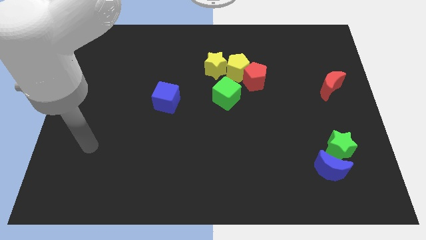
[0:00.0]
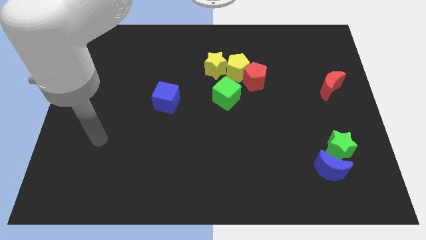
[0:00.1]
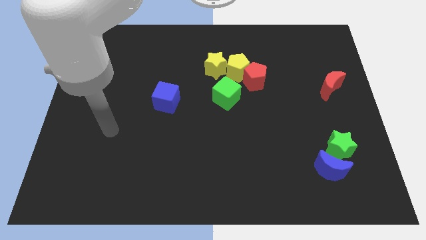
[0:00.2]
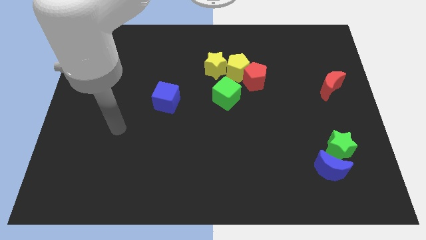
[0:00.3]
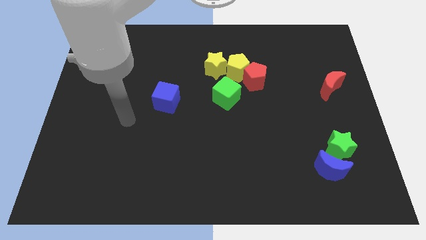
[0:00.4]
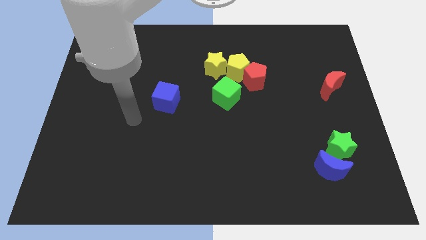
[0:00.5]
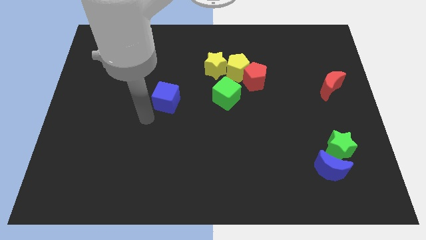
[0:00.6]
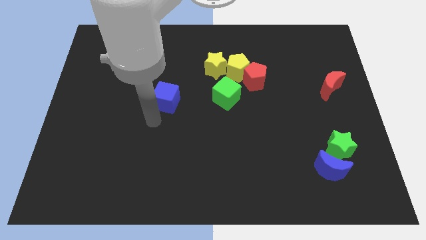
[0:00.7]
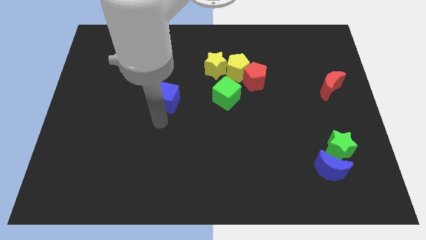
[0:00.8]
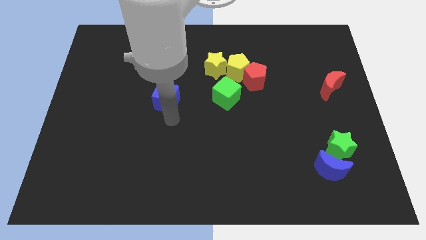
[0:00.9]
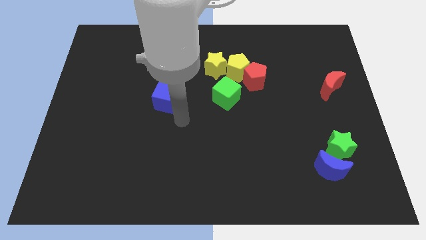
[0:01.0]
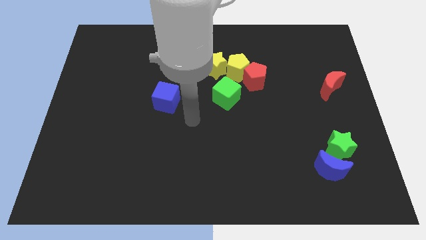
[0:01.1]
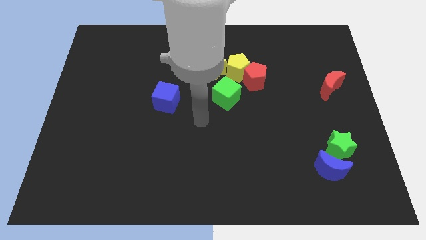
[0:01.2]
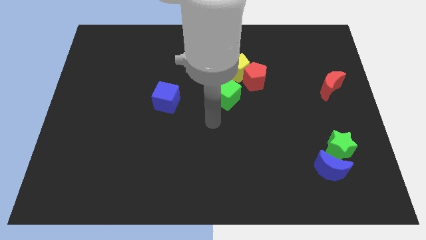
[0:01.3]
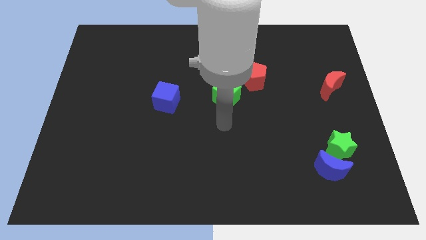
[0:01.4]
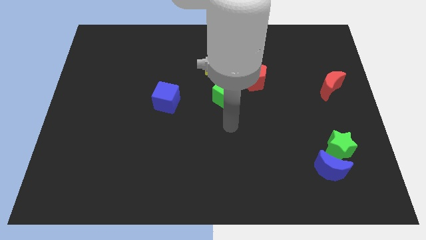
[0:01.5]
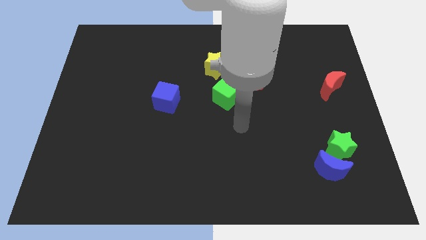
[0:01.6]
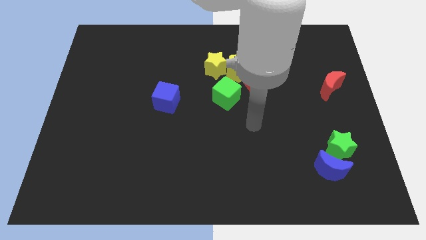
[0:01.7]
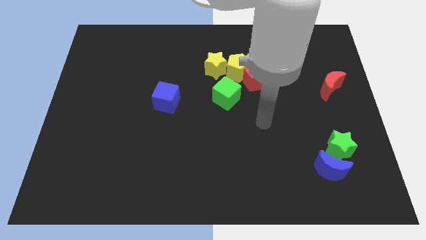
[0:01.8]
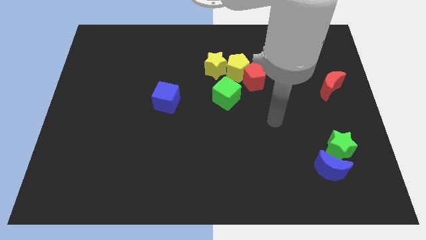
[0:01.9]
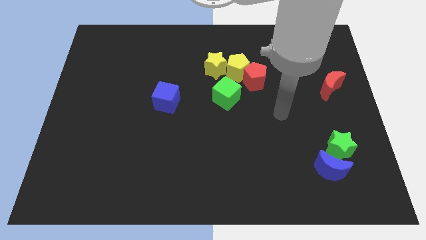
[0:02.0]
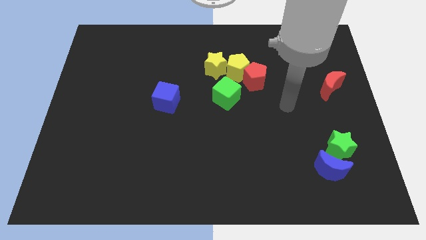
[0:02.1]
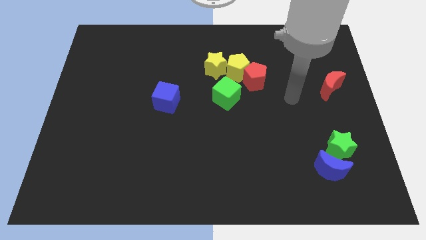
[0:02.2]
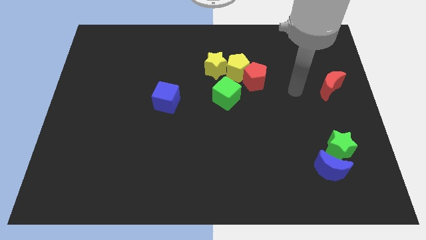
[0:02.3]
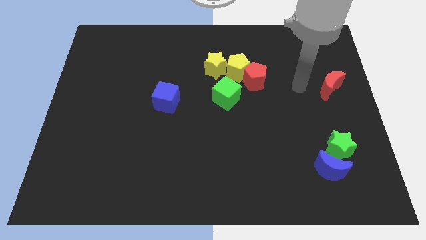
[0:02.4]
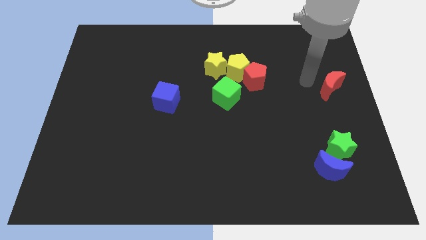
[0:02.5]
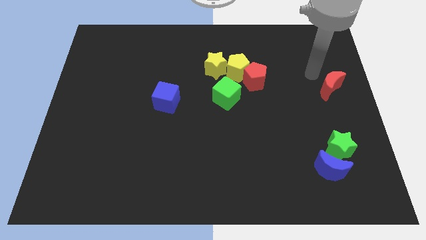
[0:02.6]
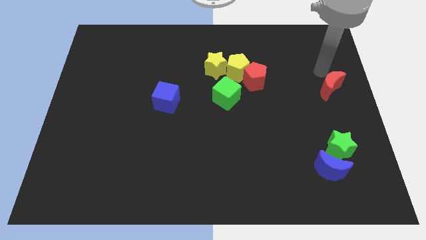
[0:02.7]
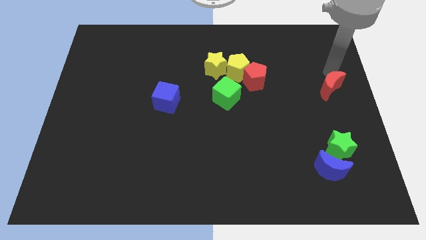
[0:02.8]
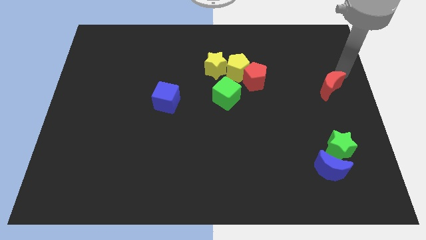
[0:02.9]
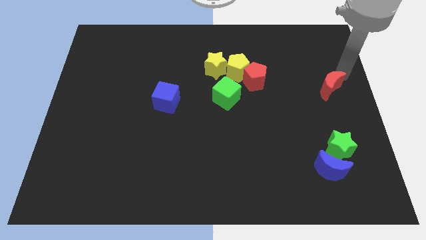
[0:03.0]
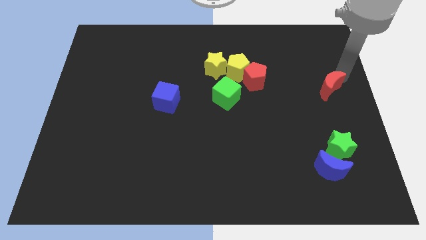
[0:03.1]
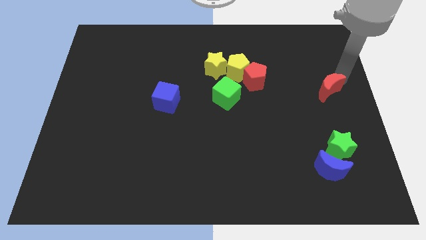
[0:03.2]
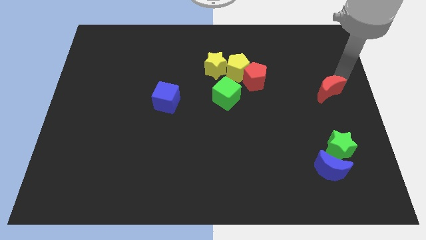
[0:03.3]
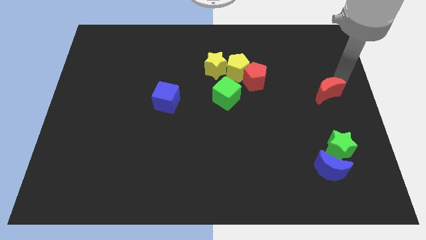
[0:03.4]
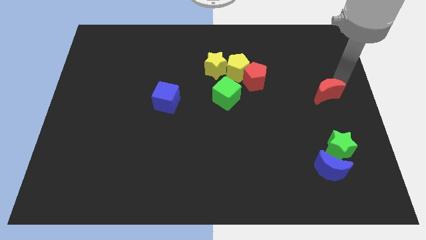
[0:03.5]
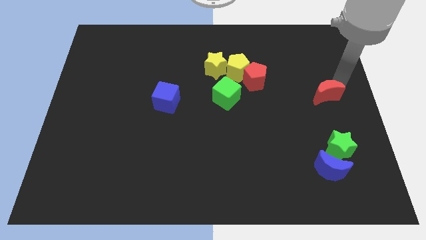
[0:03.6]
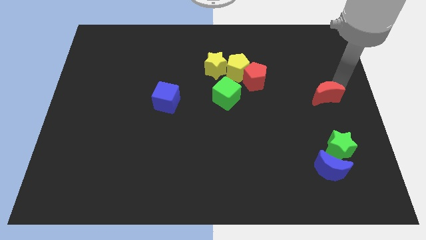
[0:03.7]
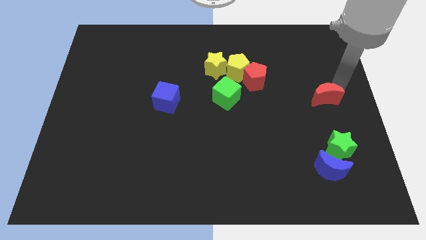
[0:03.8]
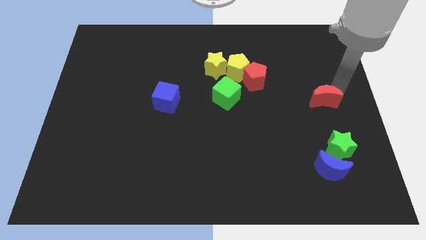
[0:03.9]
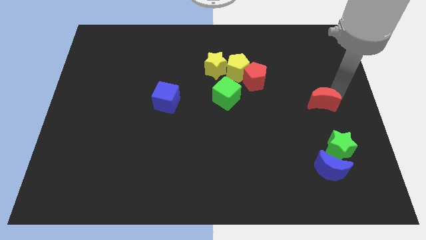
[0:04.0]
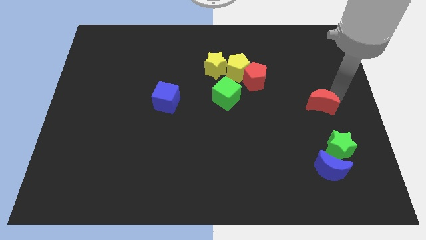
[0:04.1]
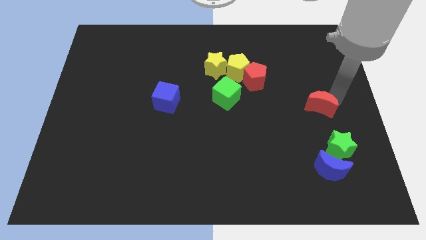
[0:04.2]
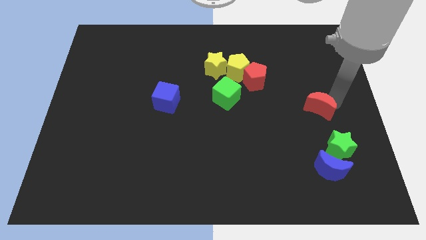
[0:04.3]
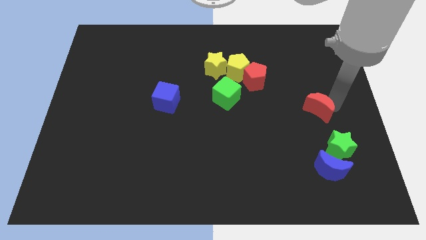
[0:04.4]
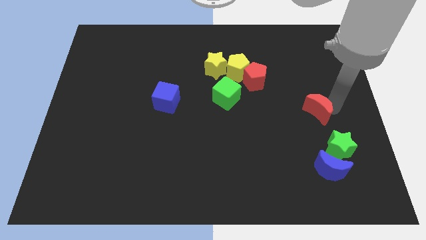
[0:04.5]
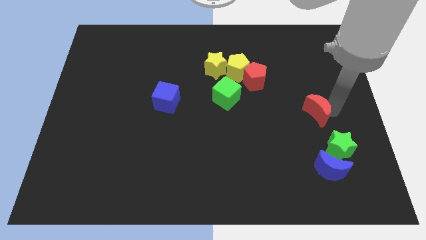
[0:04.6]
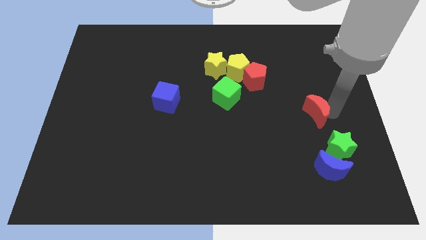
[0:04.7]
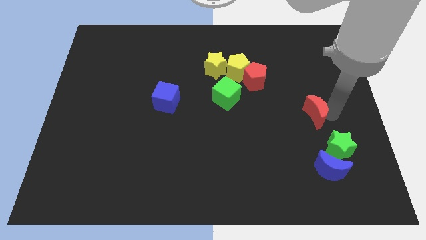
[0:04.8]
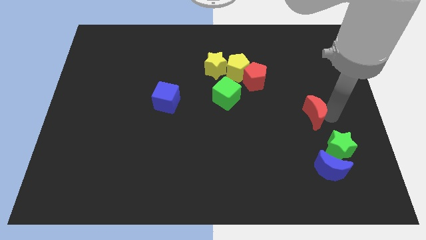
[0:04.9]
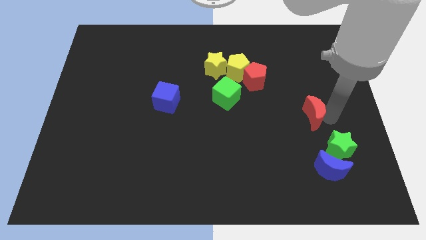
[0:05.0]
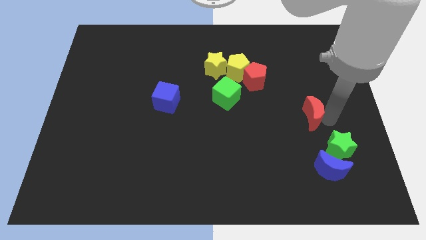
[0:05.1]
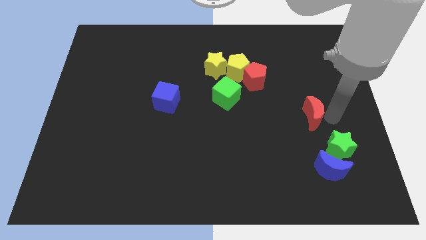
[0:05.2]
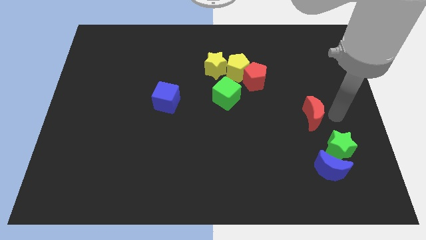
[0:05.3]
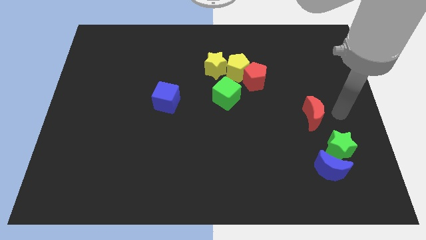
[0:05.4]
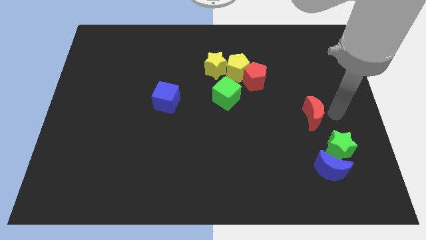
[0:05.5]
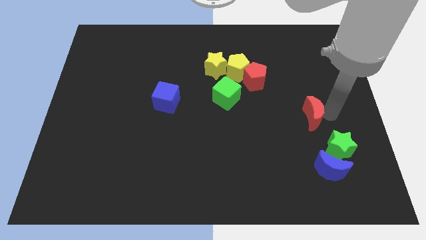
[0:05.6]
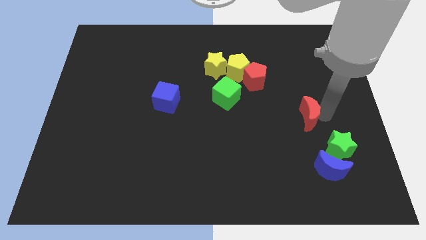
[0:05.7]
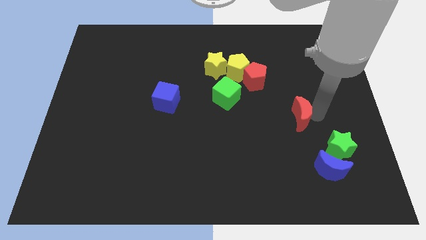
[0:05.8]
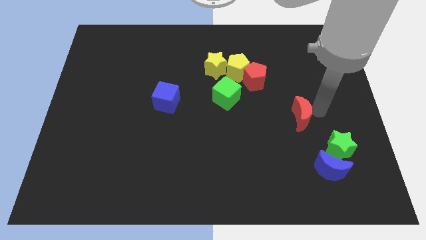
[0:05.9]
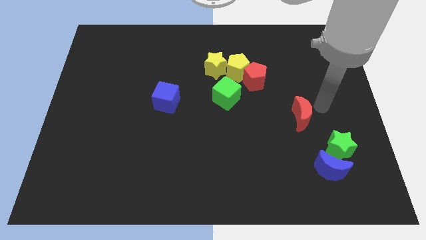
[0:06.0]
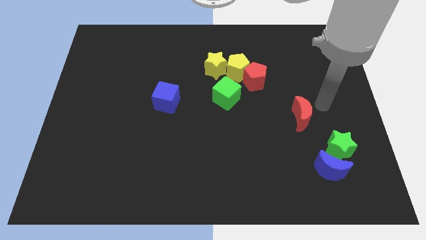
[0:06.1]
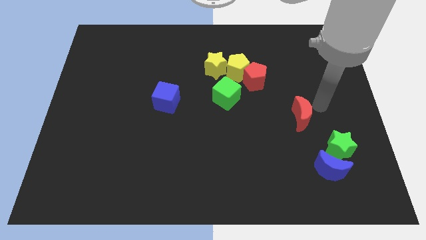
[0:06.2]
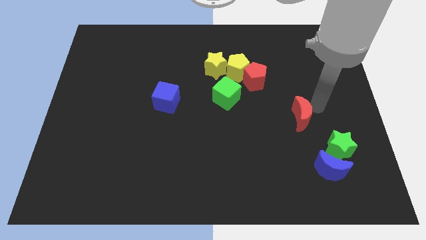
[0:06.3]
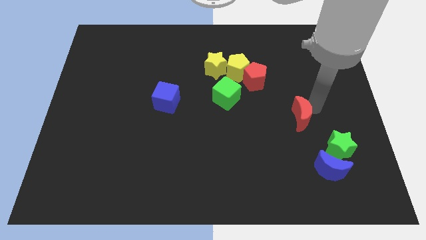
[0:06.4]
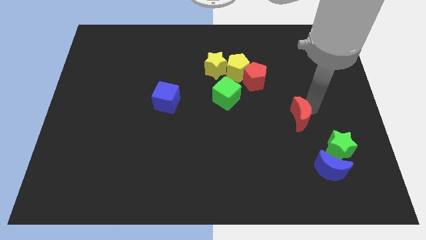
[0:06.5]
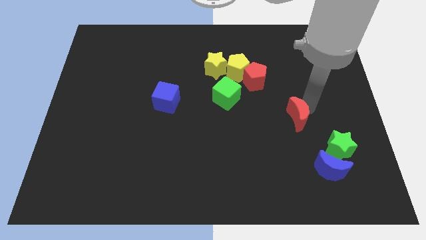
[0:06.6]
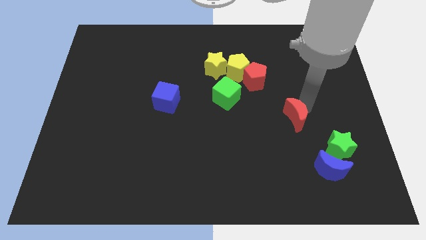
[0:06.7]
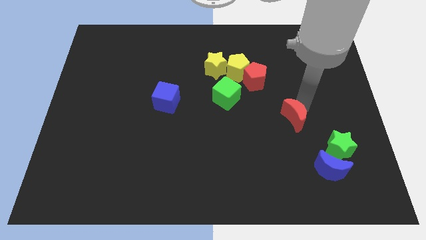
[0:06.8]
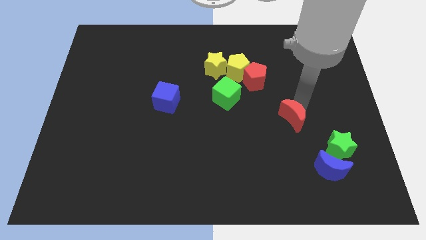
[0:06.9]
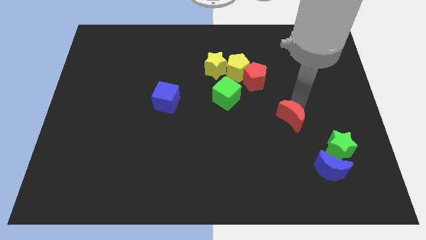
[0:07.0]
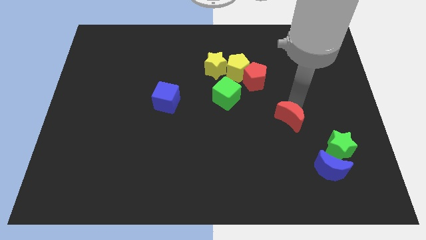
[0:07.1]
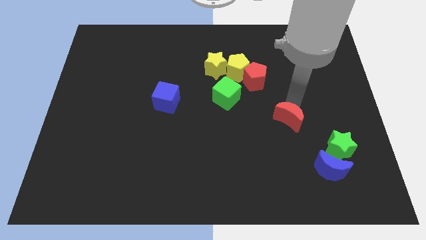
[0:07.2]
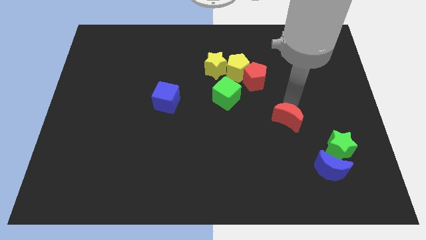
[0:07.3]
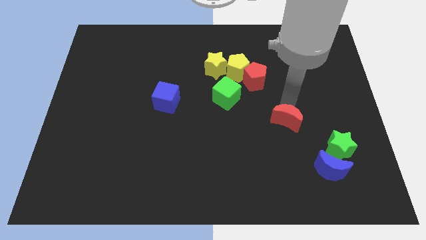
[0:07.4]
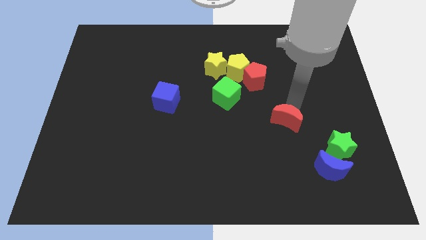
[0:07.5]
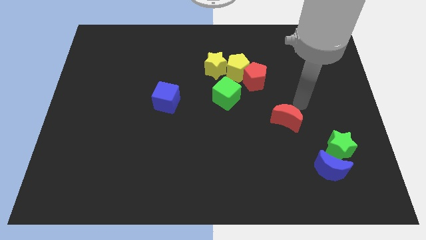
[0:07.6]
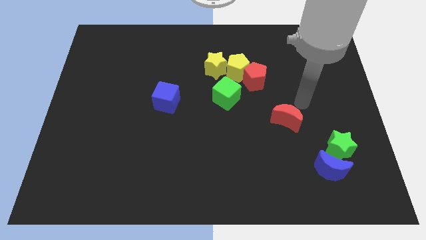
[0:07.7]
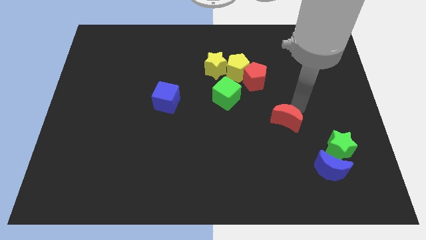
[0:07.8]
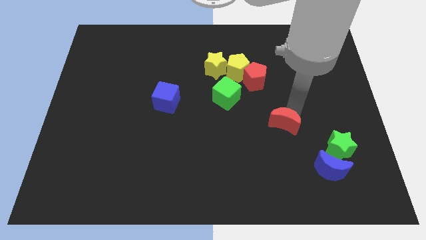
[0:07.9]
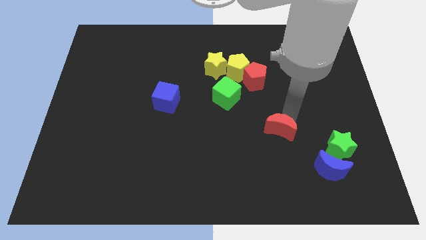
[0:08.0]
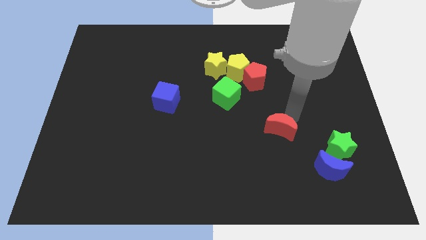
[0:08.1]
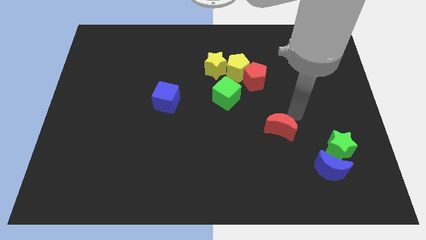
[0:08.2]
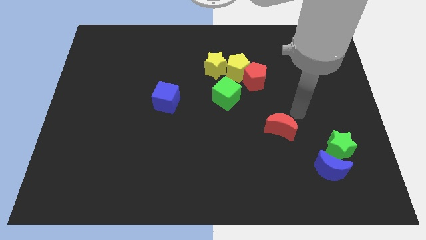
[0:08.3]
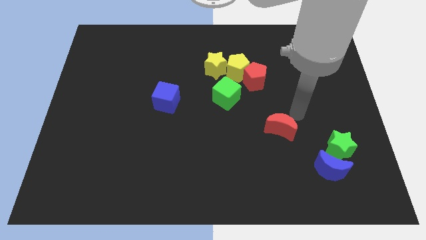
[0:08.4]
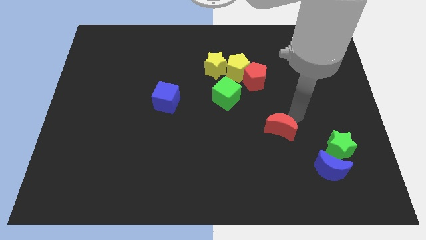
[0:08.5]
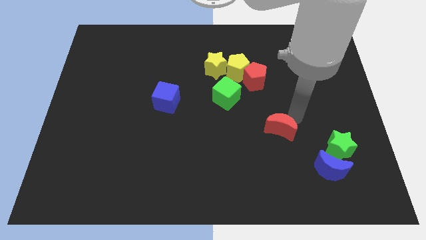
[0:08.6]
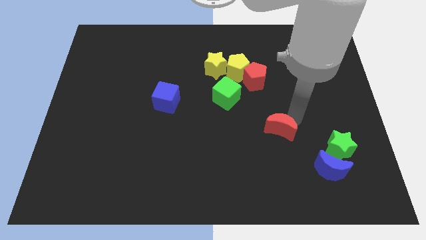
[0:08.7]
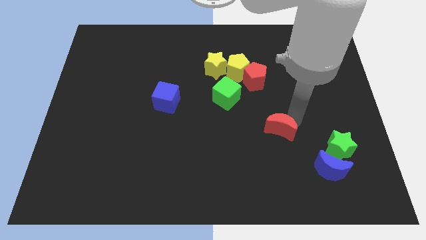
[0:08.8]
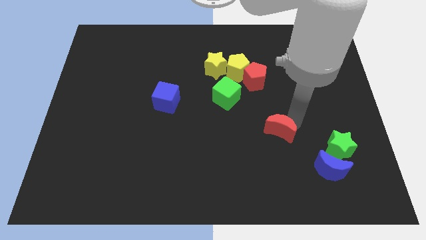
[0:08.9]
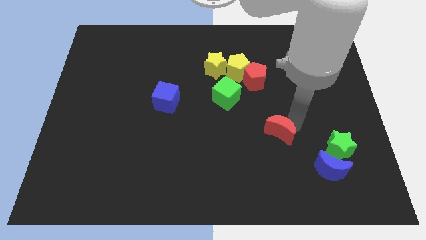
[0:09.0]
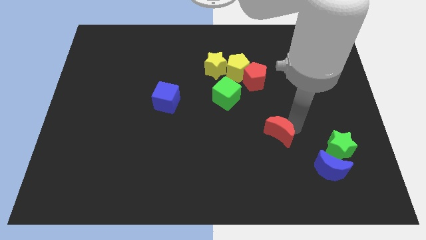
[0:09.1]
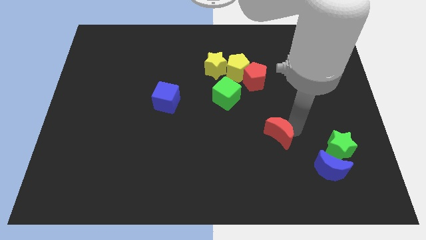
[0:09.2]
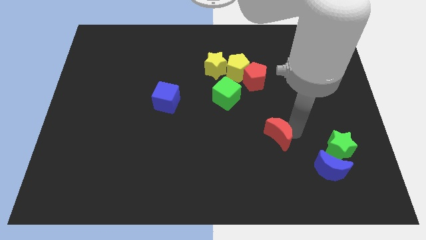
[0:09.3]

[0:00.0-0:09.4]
move the red moon downwards and left
